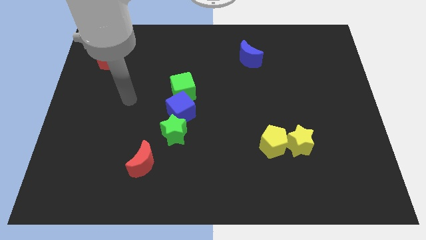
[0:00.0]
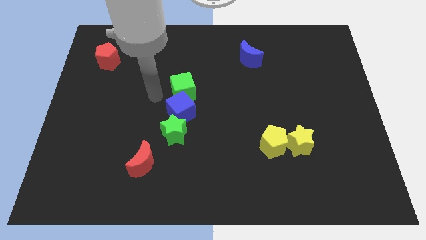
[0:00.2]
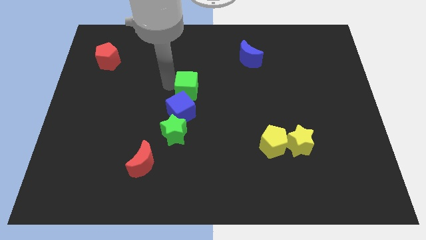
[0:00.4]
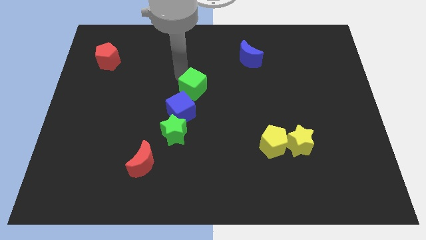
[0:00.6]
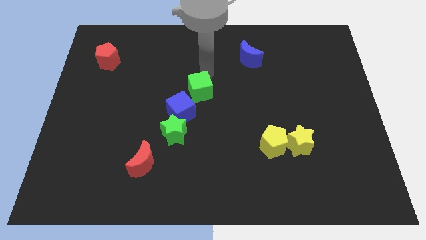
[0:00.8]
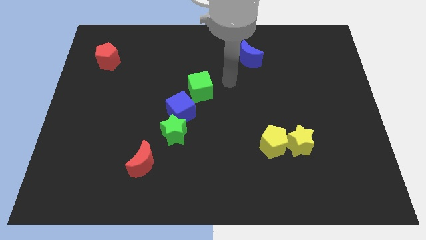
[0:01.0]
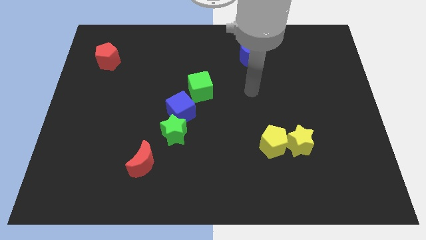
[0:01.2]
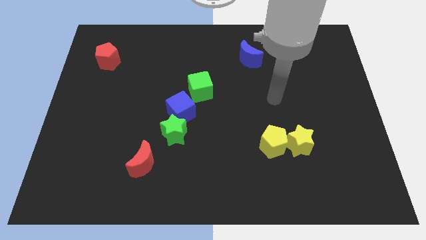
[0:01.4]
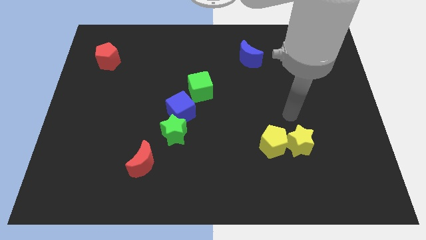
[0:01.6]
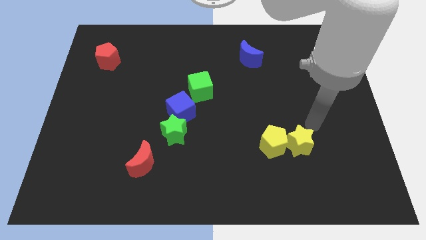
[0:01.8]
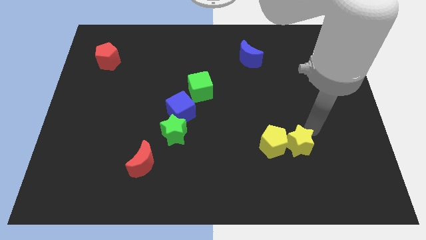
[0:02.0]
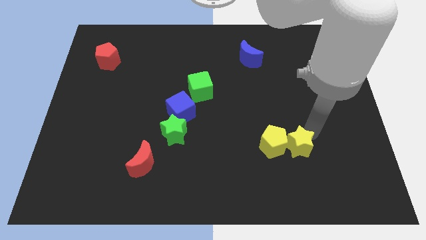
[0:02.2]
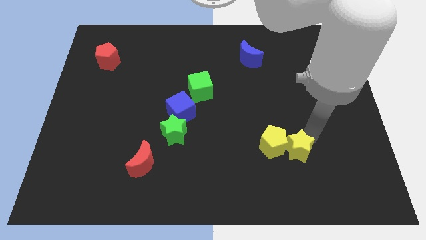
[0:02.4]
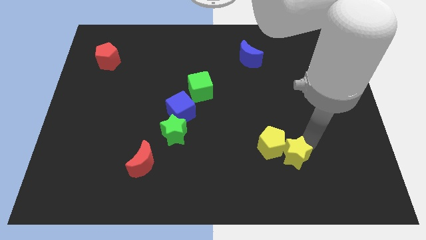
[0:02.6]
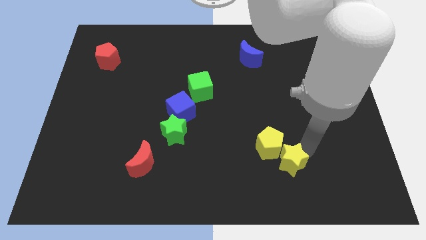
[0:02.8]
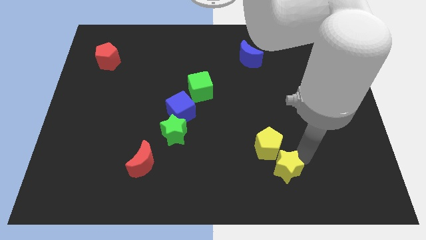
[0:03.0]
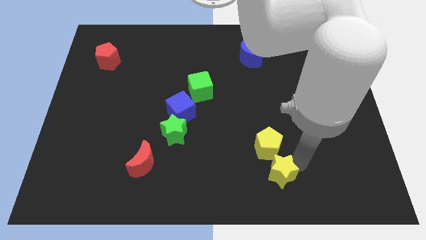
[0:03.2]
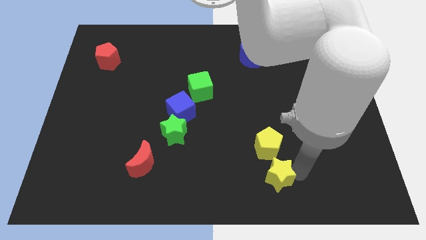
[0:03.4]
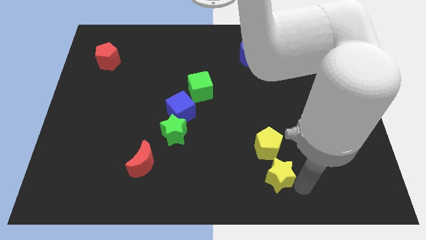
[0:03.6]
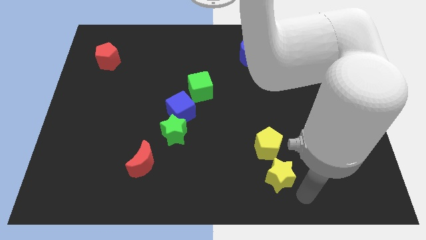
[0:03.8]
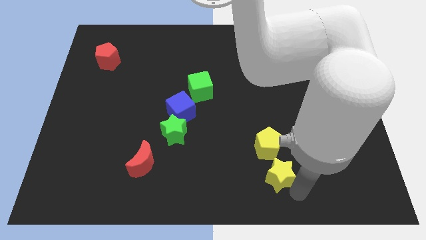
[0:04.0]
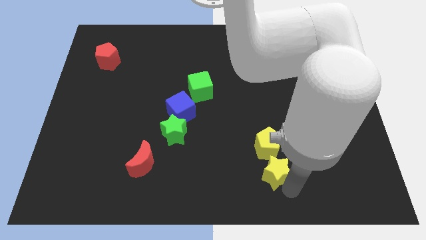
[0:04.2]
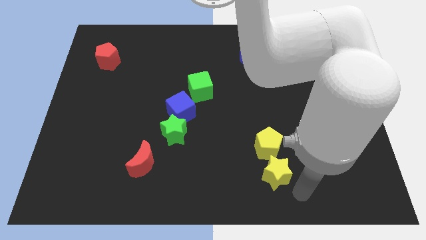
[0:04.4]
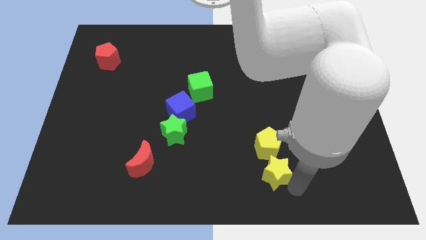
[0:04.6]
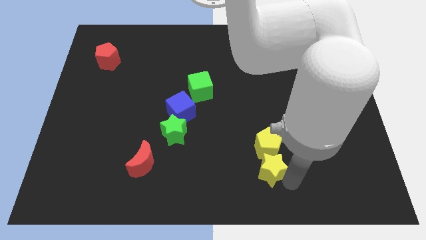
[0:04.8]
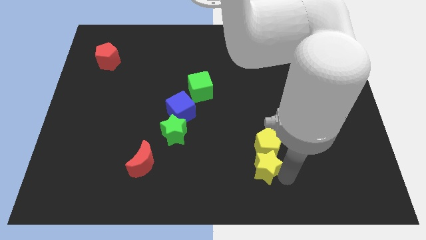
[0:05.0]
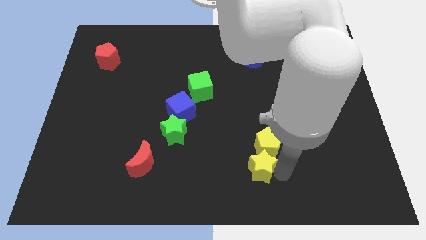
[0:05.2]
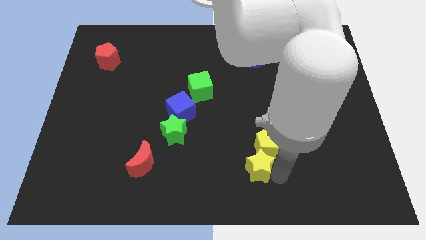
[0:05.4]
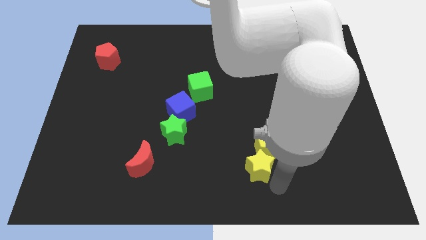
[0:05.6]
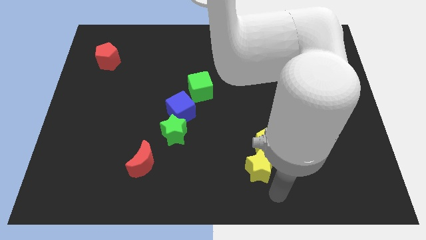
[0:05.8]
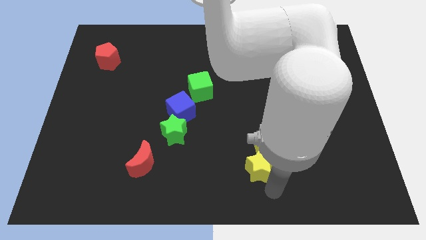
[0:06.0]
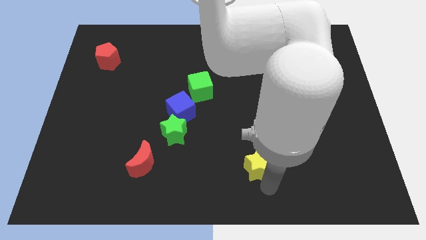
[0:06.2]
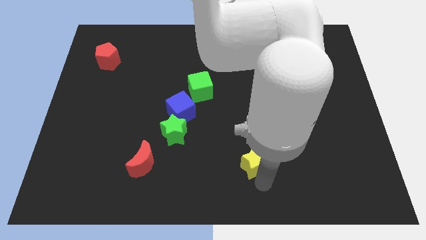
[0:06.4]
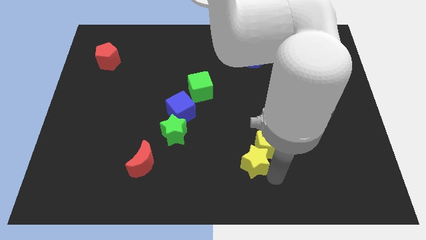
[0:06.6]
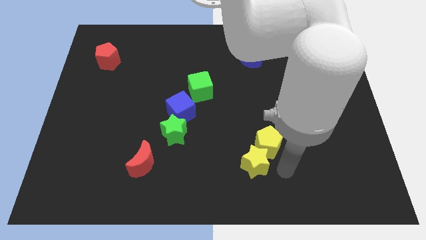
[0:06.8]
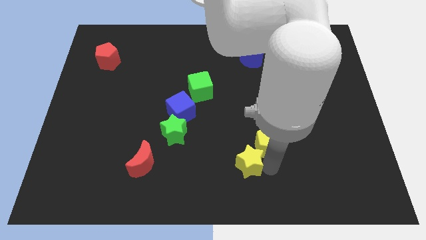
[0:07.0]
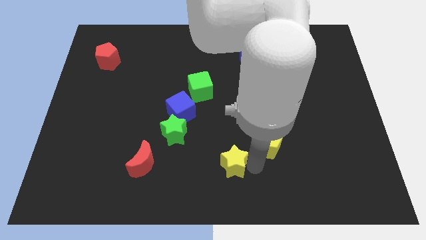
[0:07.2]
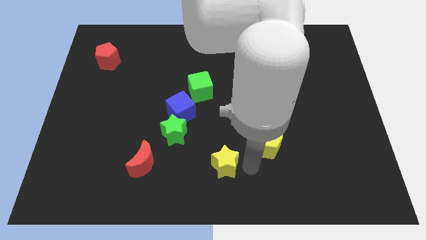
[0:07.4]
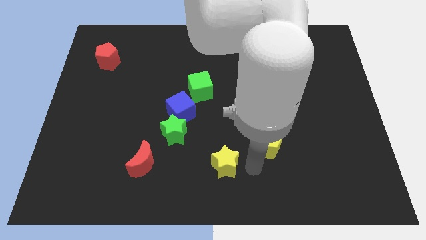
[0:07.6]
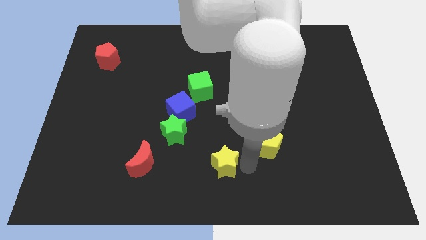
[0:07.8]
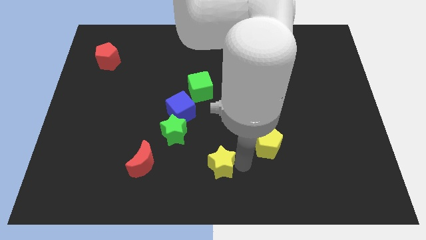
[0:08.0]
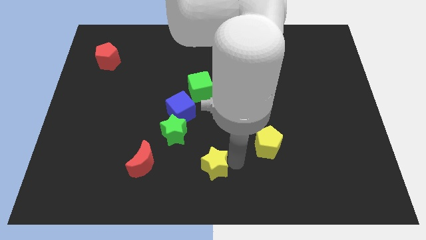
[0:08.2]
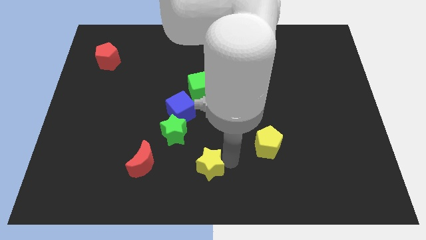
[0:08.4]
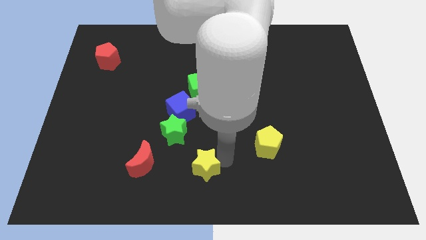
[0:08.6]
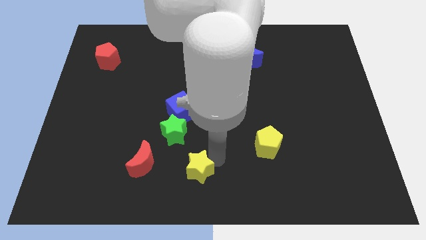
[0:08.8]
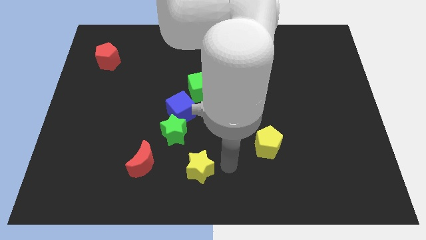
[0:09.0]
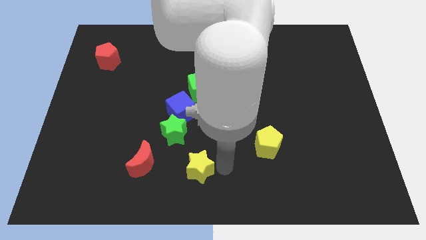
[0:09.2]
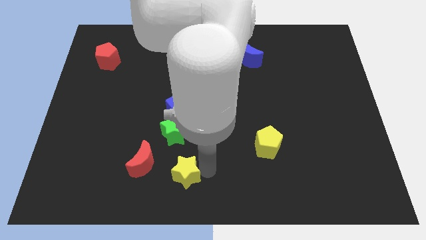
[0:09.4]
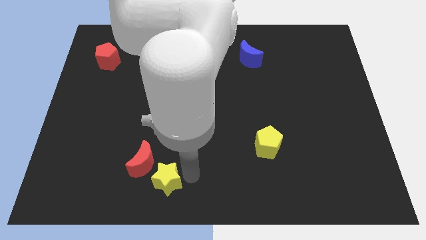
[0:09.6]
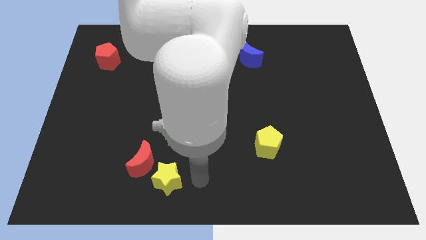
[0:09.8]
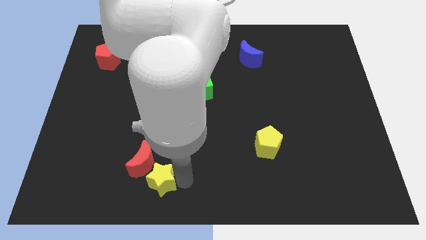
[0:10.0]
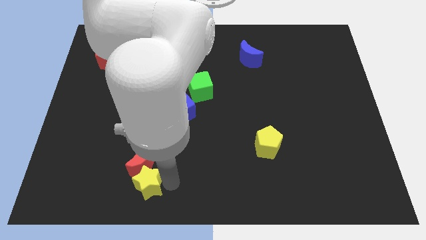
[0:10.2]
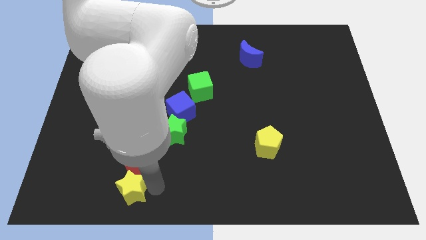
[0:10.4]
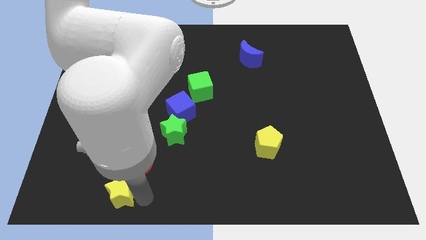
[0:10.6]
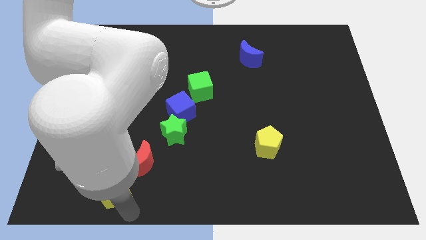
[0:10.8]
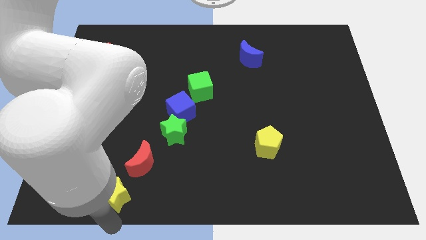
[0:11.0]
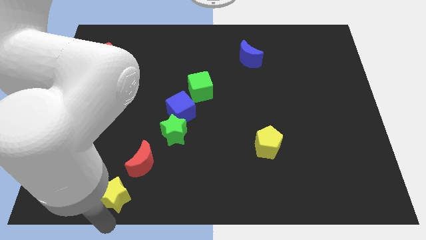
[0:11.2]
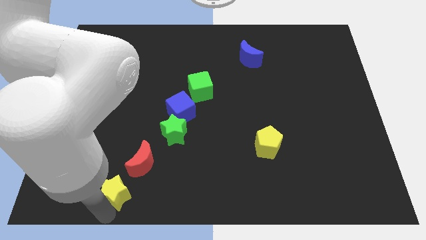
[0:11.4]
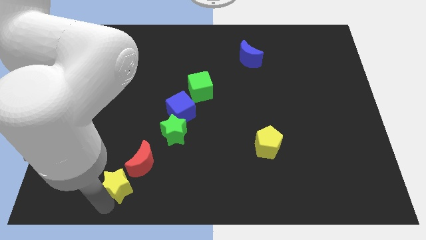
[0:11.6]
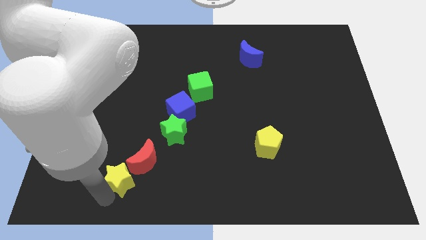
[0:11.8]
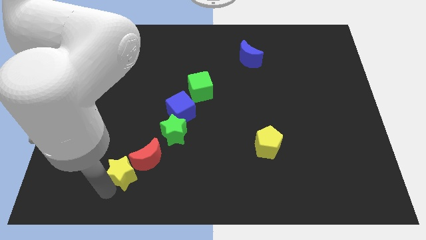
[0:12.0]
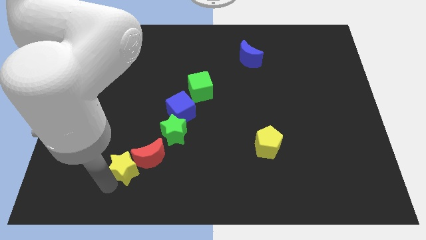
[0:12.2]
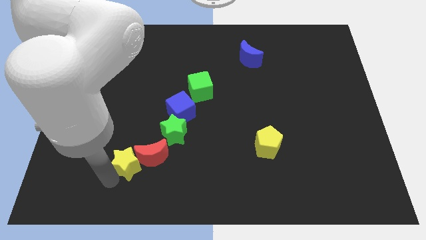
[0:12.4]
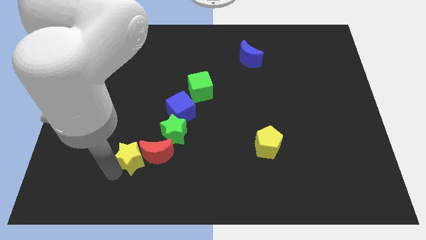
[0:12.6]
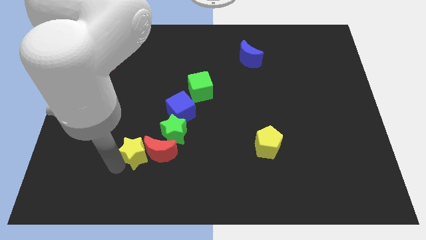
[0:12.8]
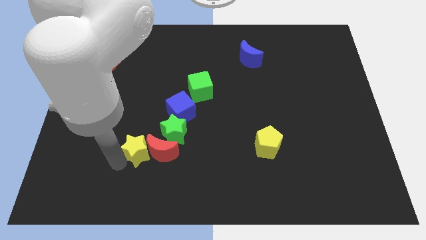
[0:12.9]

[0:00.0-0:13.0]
push the yellow star to the left of the green star
